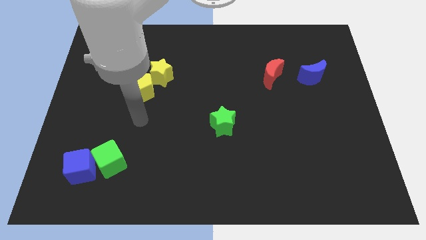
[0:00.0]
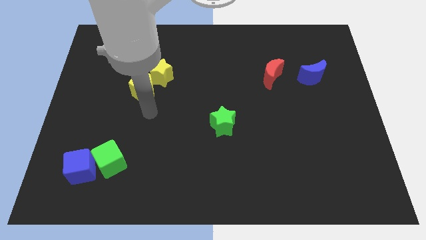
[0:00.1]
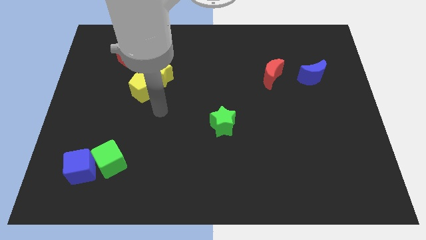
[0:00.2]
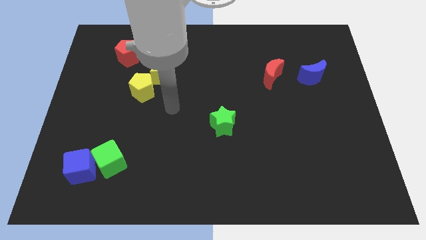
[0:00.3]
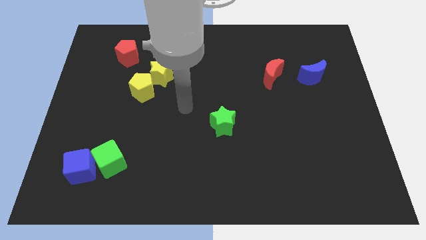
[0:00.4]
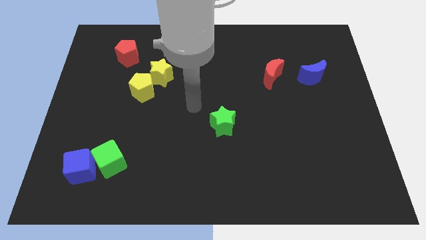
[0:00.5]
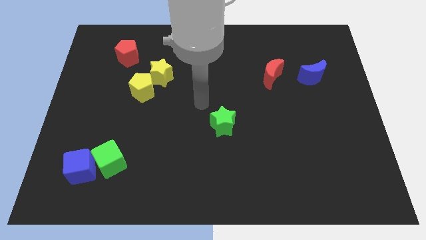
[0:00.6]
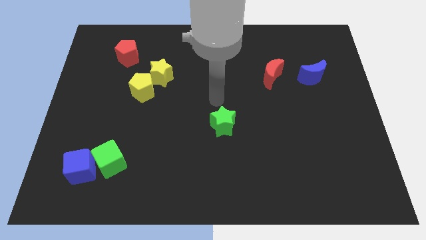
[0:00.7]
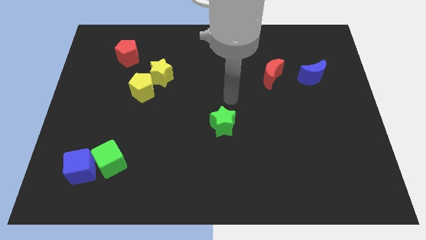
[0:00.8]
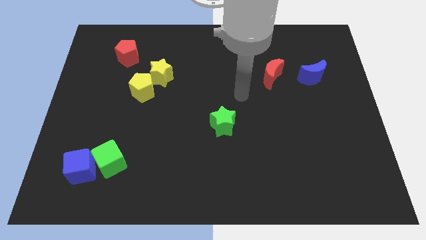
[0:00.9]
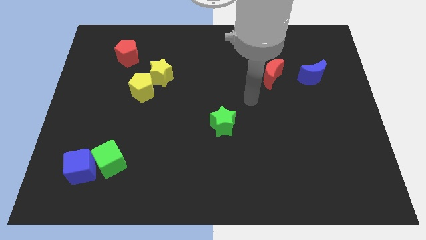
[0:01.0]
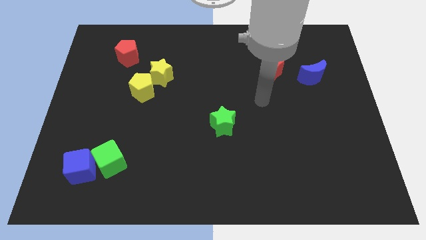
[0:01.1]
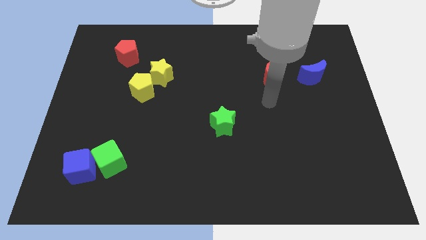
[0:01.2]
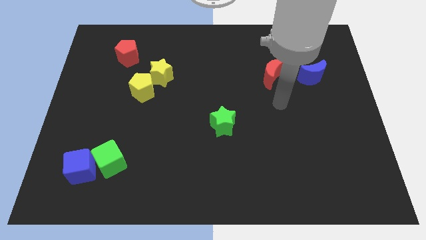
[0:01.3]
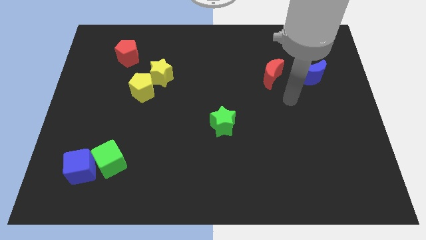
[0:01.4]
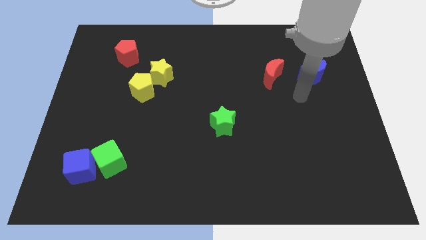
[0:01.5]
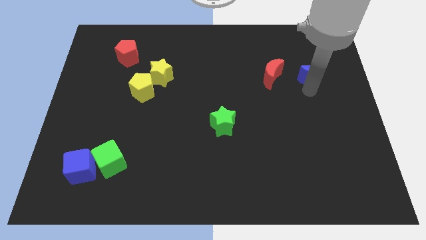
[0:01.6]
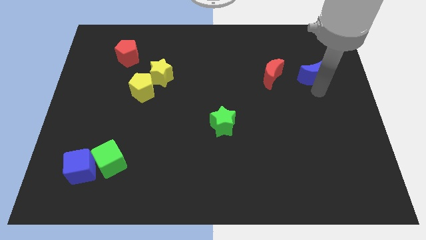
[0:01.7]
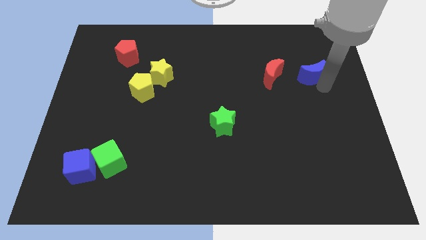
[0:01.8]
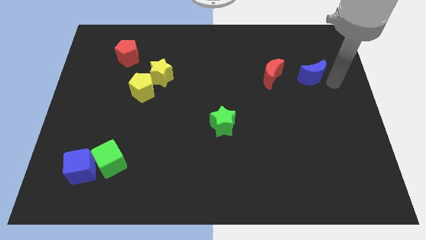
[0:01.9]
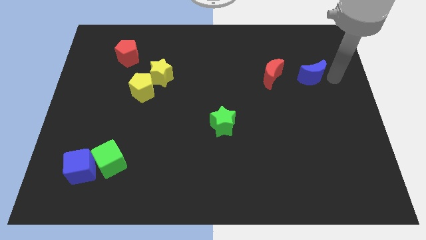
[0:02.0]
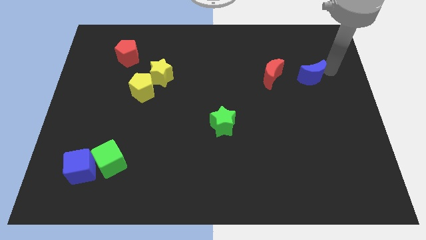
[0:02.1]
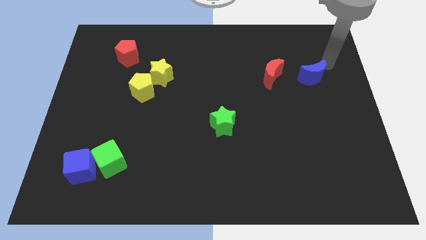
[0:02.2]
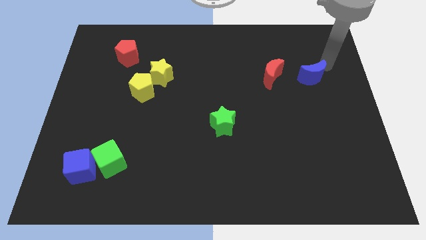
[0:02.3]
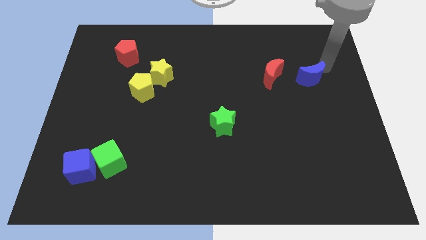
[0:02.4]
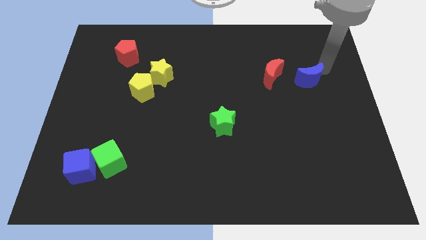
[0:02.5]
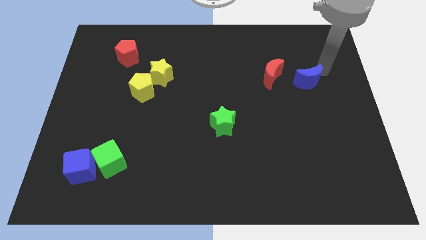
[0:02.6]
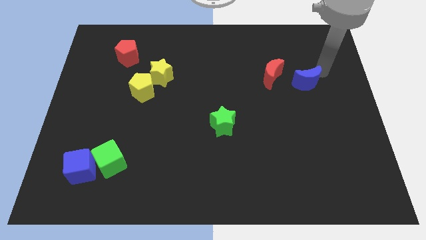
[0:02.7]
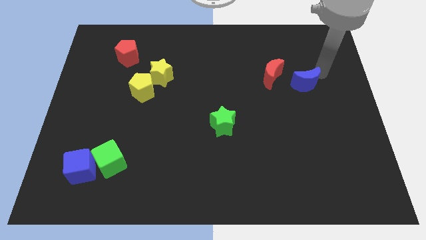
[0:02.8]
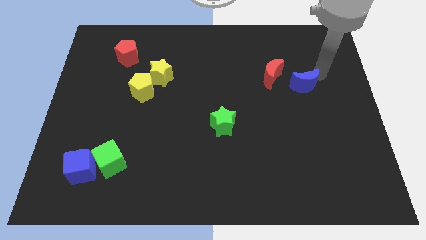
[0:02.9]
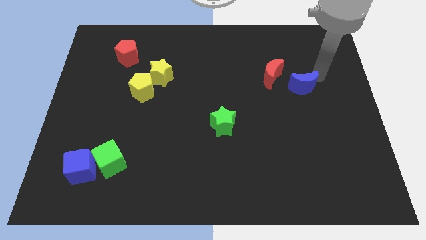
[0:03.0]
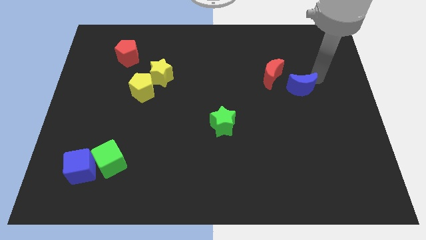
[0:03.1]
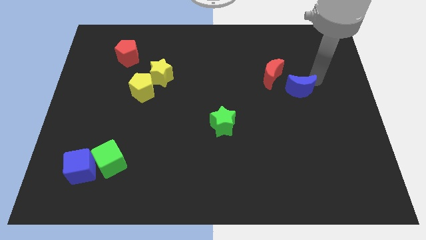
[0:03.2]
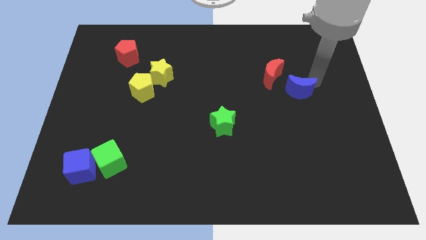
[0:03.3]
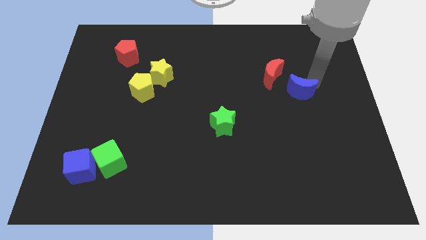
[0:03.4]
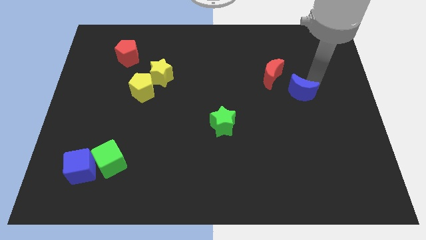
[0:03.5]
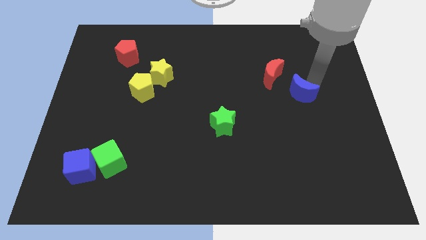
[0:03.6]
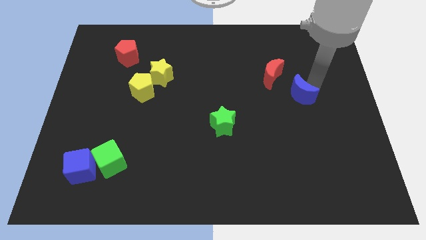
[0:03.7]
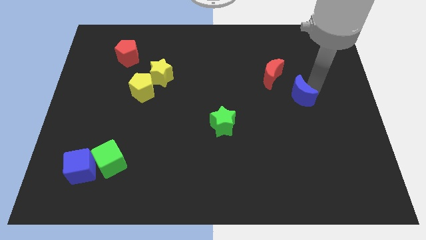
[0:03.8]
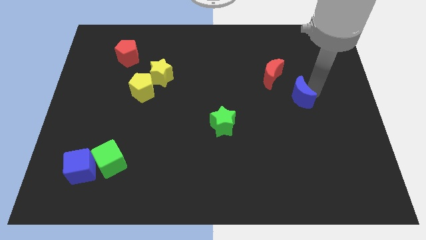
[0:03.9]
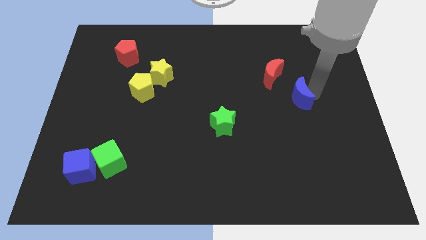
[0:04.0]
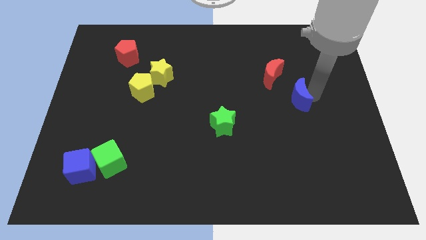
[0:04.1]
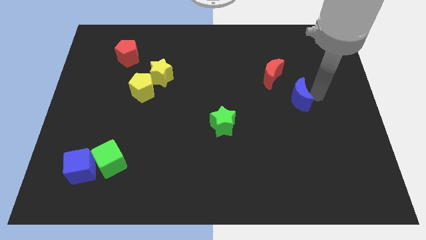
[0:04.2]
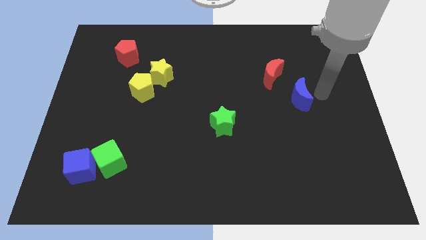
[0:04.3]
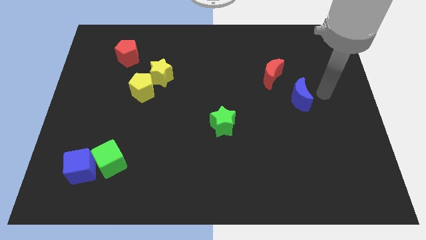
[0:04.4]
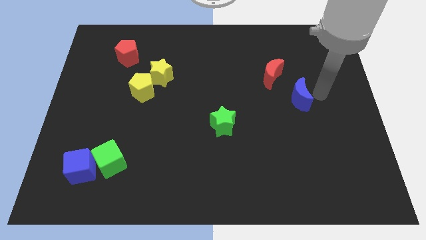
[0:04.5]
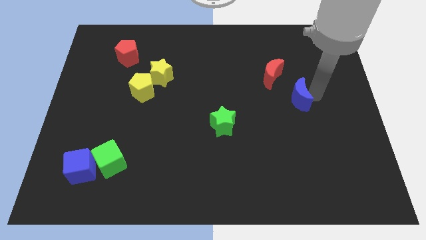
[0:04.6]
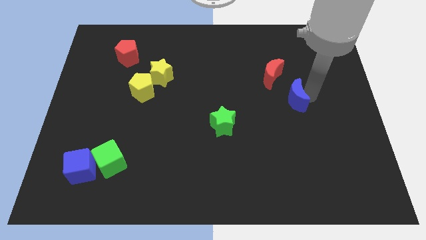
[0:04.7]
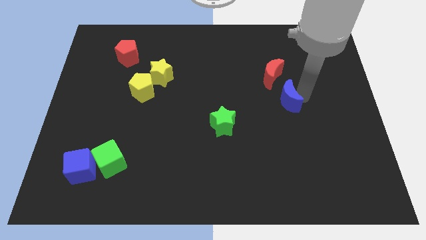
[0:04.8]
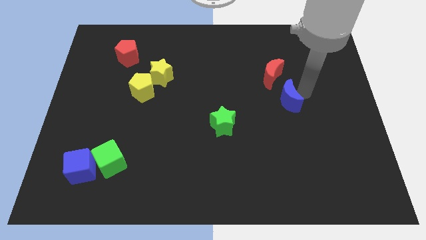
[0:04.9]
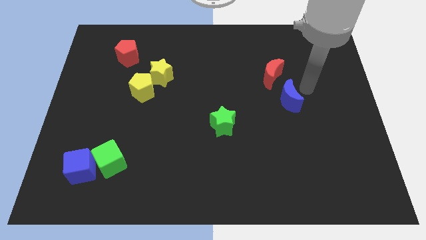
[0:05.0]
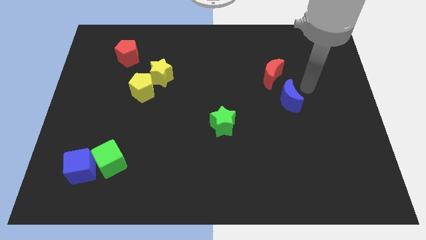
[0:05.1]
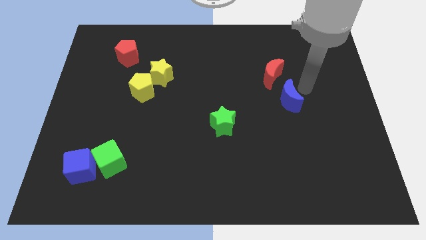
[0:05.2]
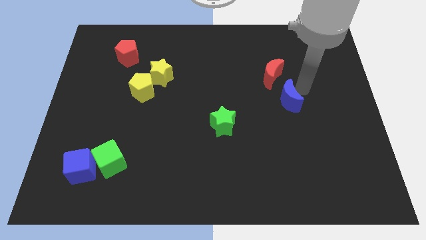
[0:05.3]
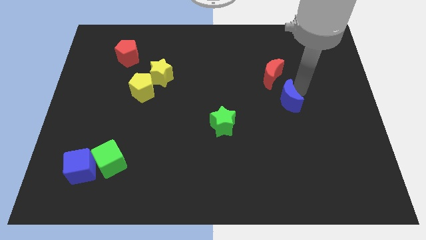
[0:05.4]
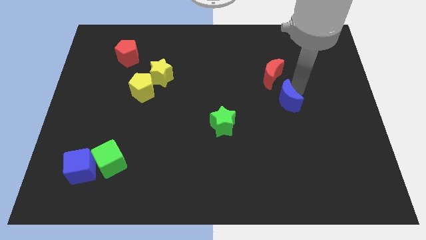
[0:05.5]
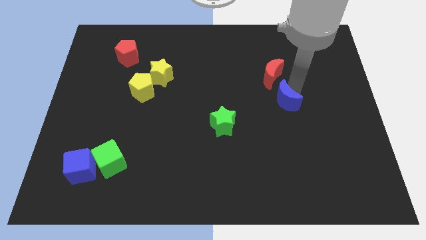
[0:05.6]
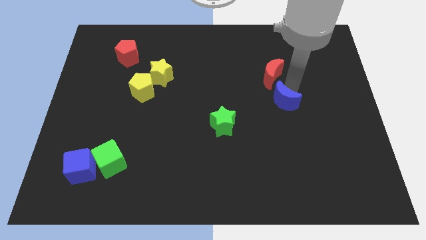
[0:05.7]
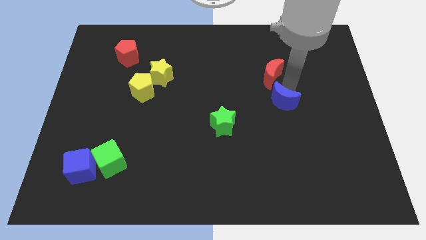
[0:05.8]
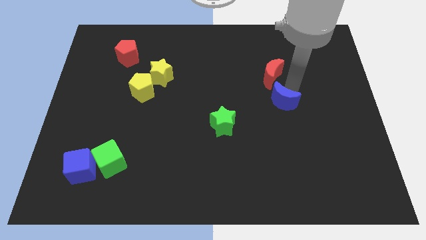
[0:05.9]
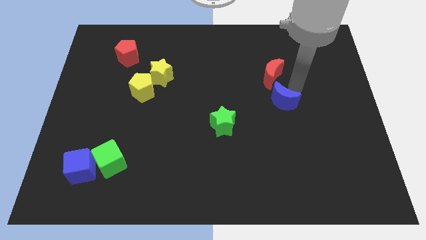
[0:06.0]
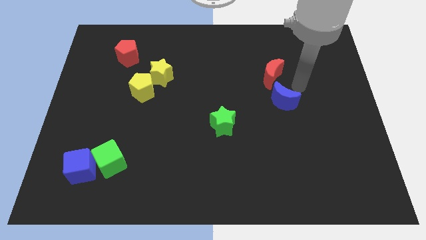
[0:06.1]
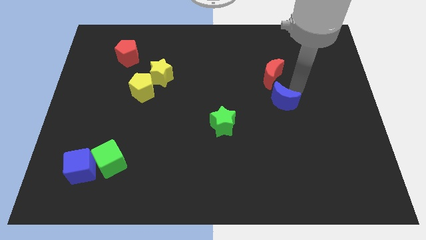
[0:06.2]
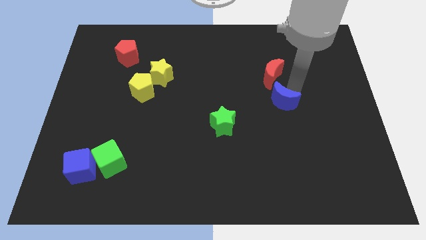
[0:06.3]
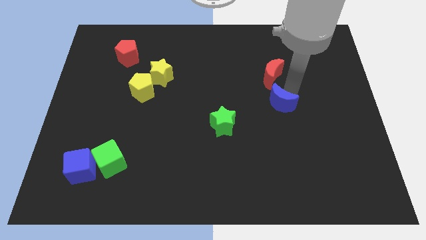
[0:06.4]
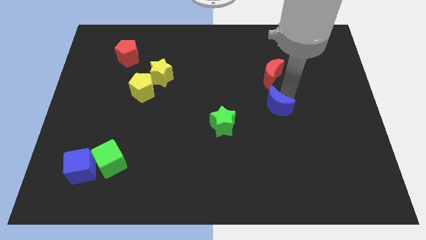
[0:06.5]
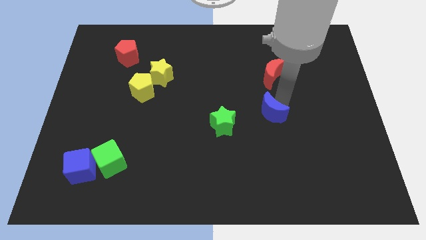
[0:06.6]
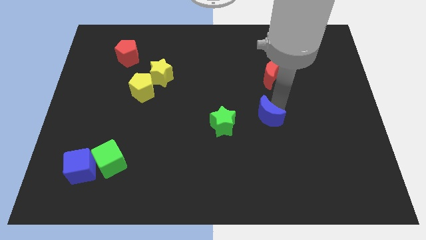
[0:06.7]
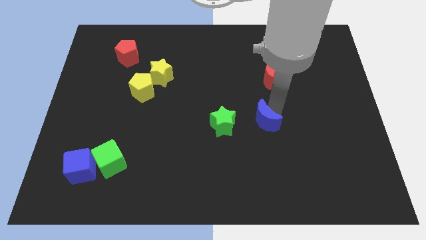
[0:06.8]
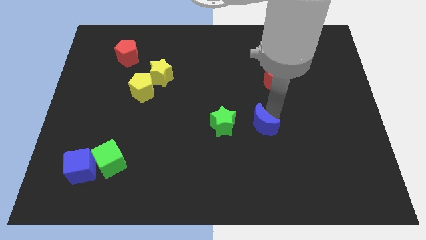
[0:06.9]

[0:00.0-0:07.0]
push the blue moon downwards and to the left diagonally

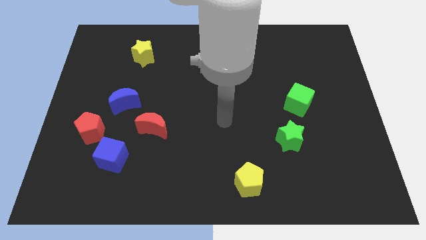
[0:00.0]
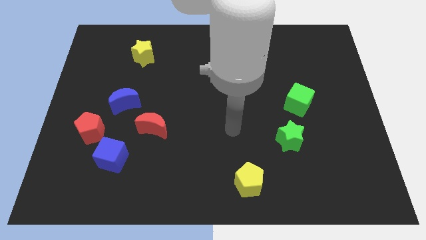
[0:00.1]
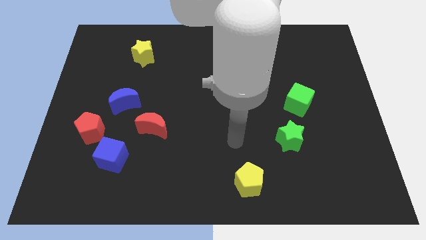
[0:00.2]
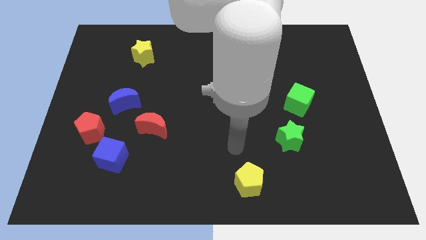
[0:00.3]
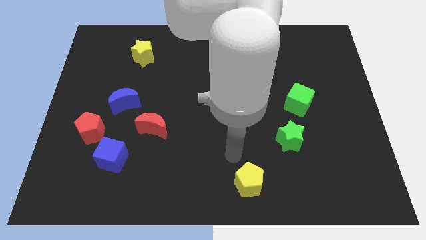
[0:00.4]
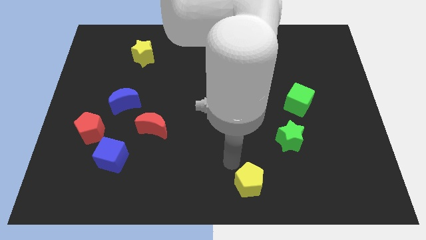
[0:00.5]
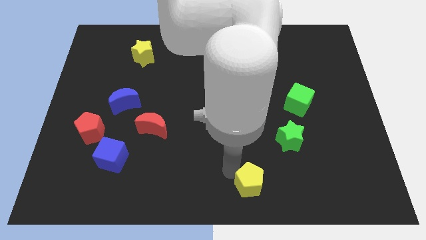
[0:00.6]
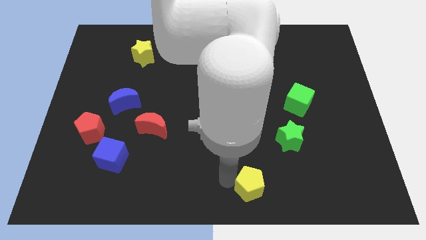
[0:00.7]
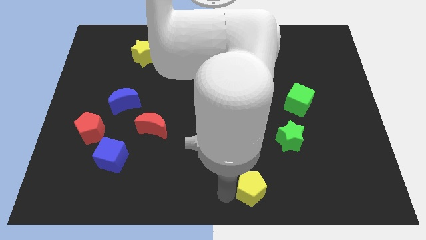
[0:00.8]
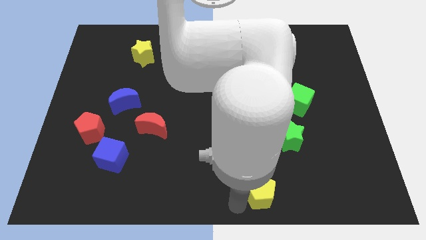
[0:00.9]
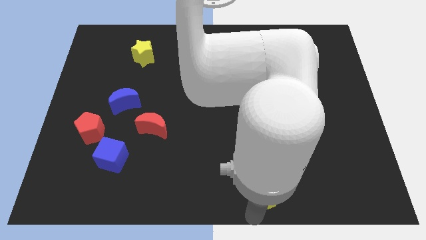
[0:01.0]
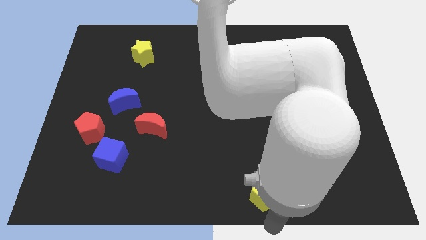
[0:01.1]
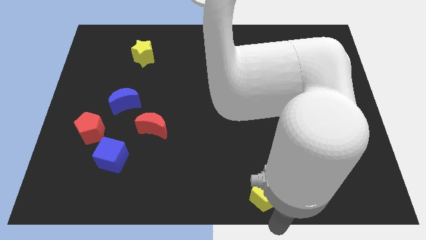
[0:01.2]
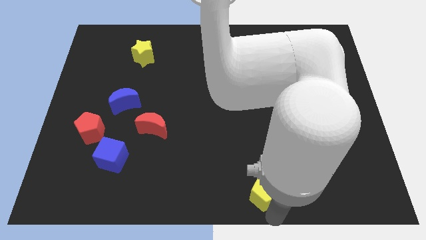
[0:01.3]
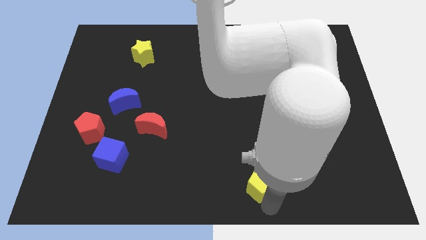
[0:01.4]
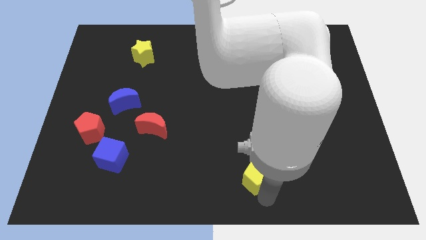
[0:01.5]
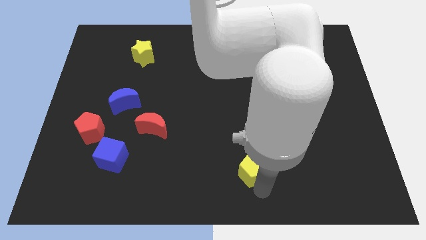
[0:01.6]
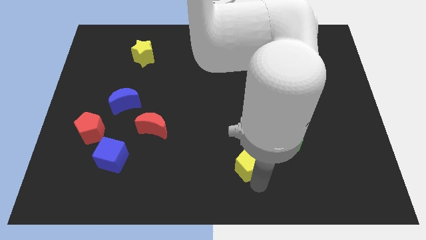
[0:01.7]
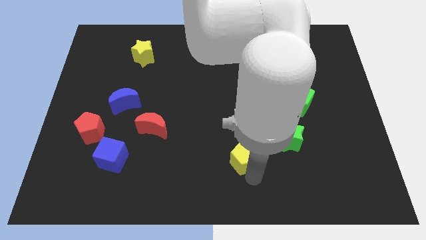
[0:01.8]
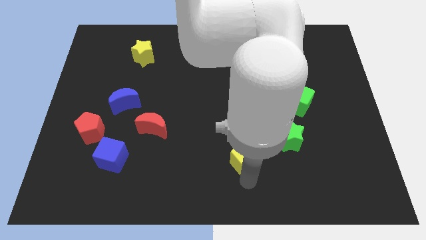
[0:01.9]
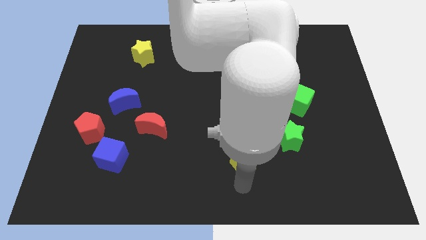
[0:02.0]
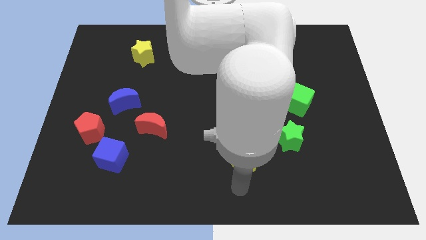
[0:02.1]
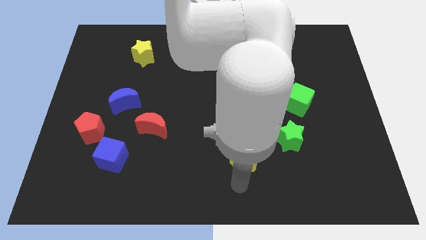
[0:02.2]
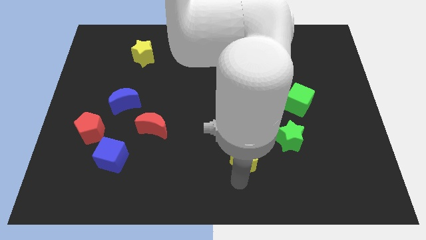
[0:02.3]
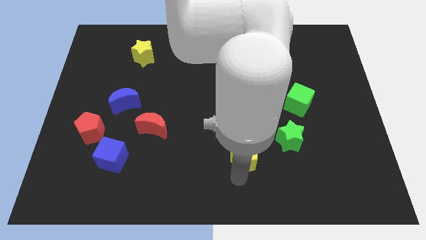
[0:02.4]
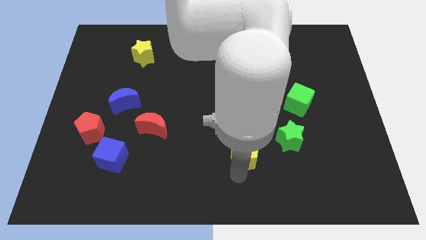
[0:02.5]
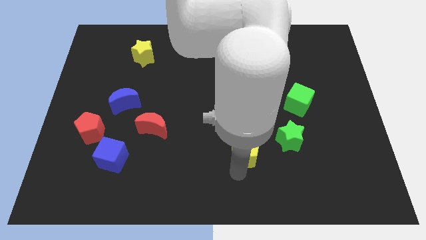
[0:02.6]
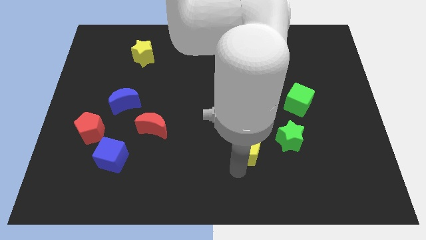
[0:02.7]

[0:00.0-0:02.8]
push the yellow pentagon a bit upwards
